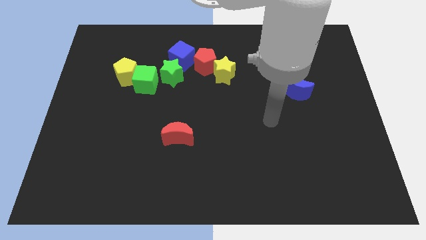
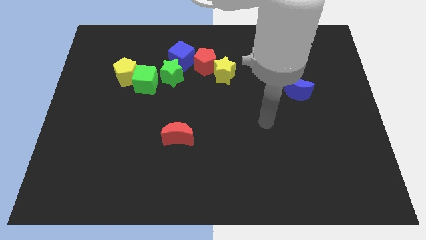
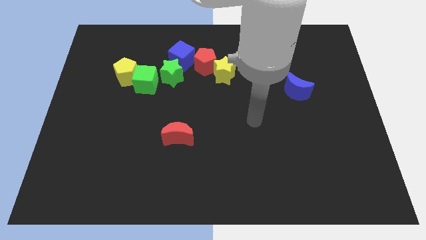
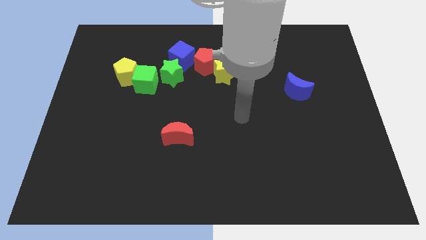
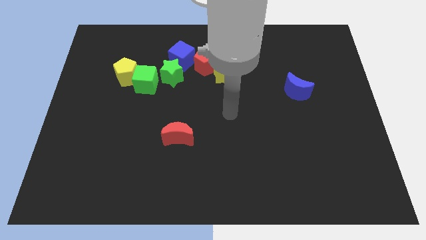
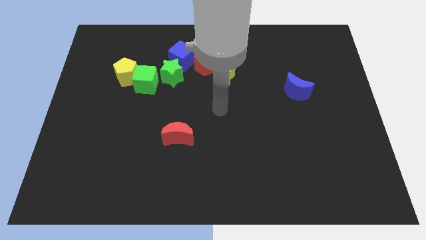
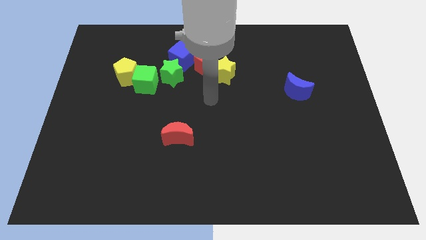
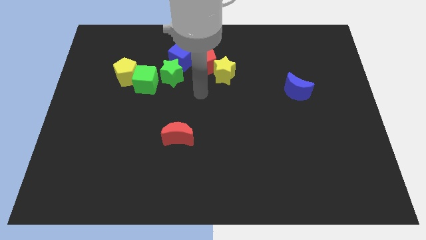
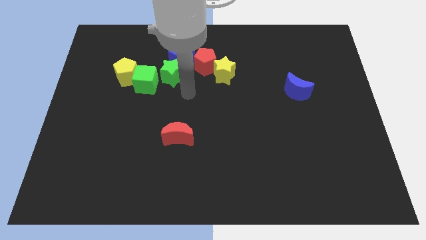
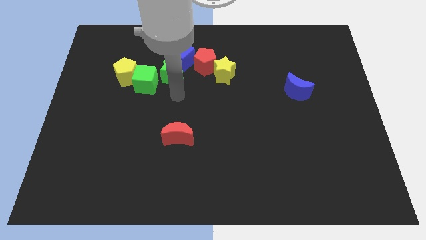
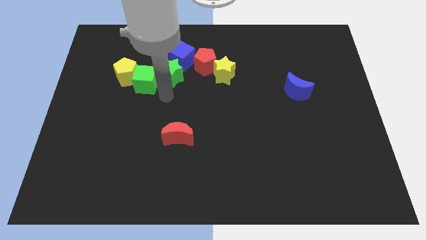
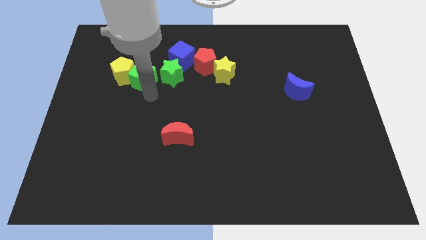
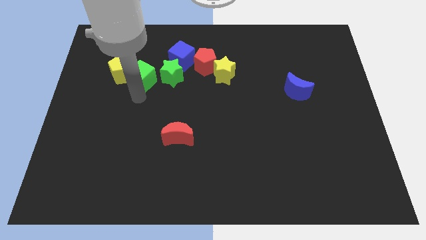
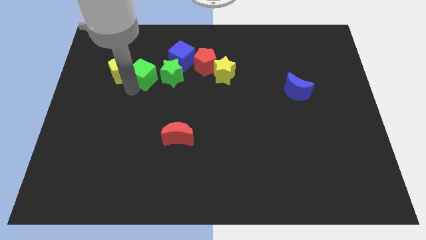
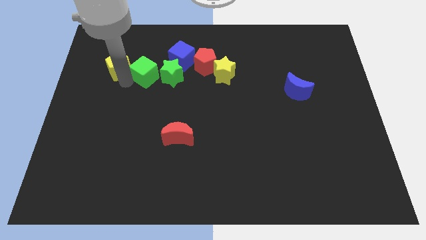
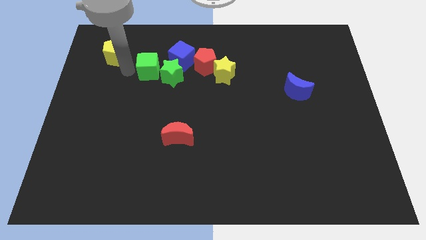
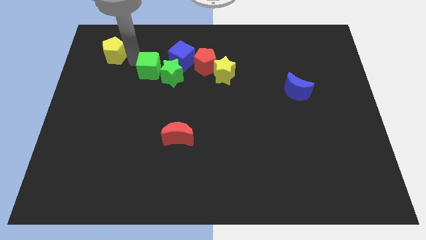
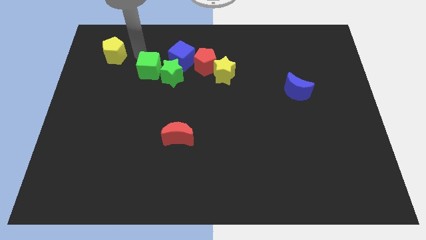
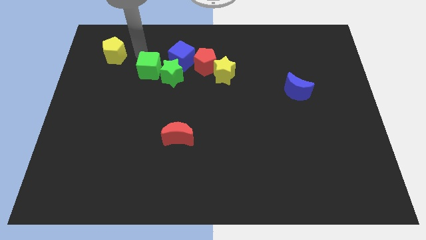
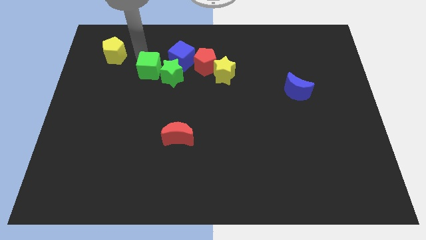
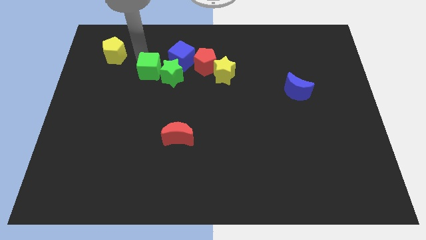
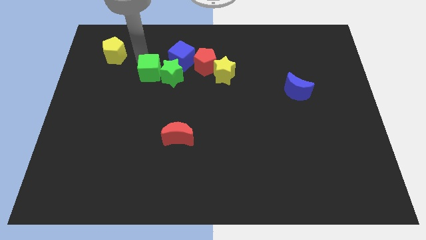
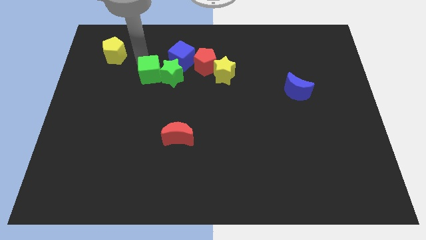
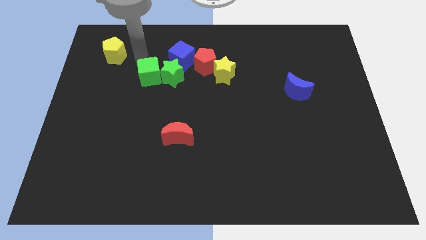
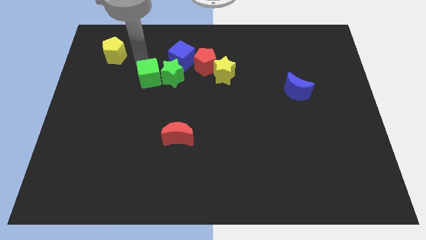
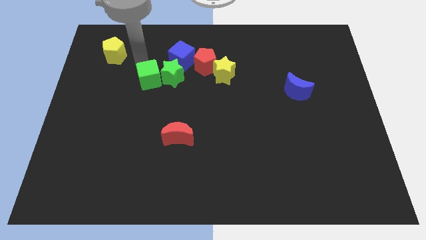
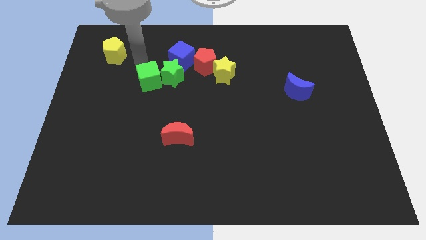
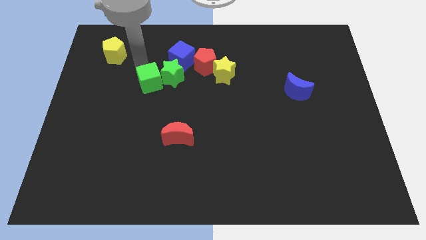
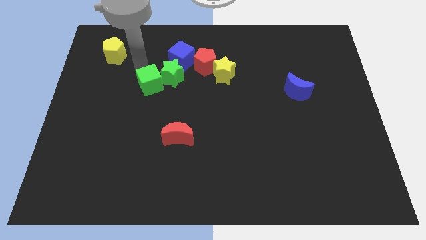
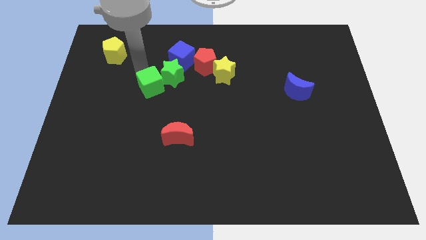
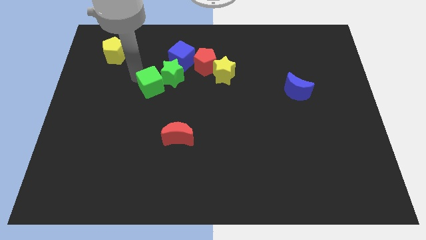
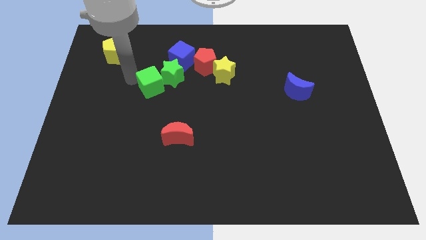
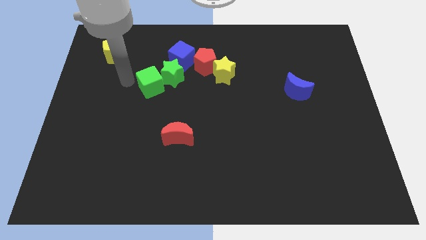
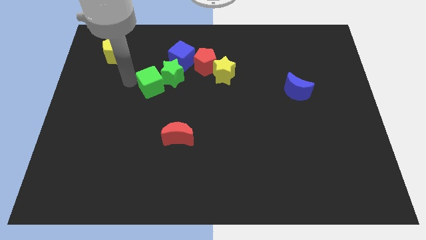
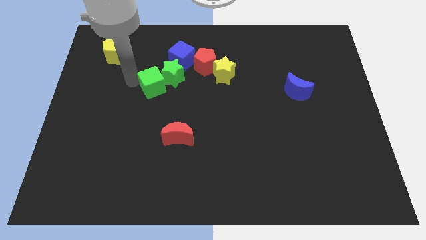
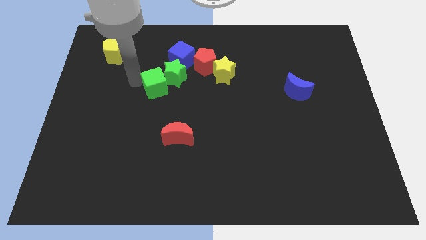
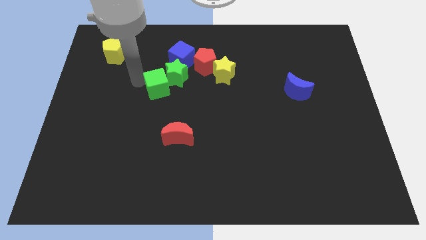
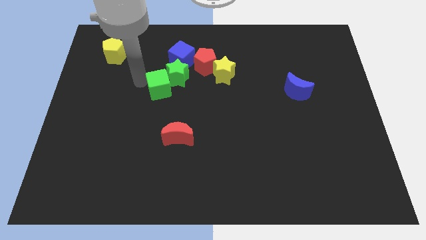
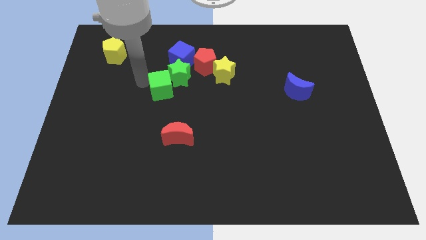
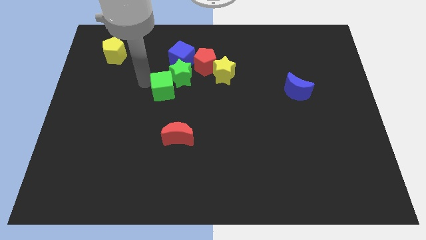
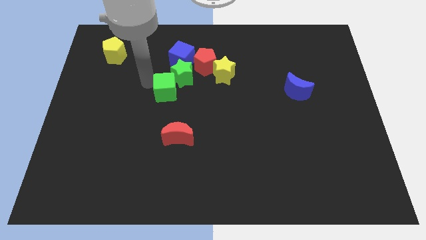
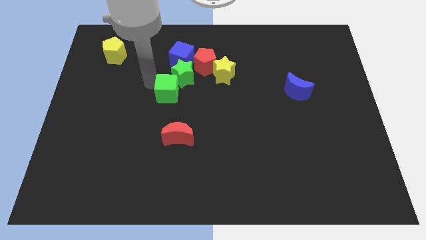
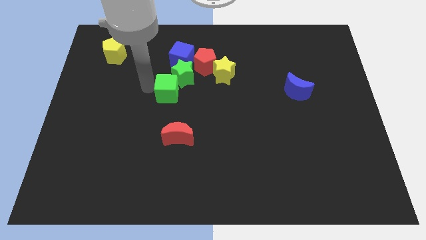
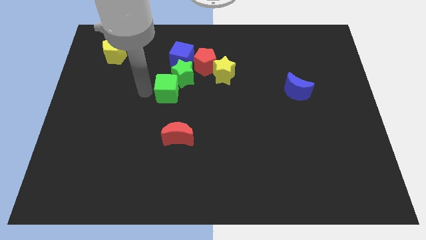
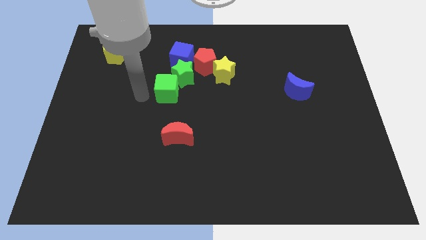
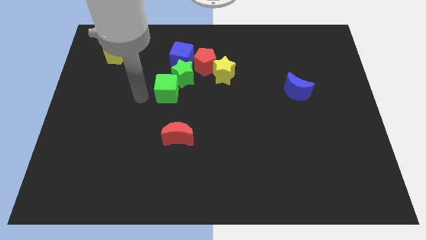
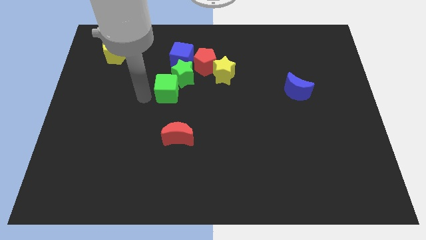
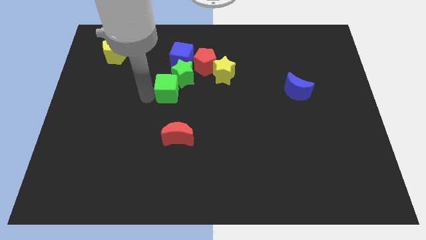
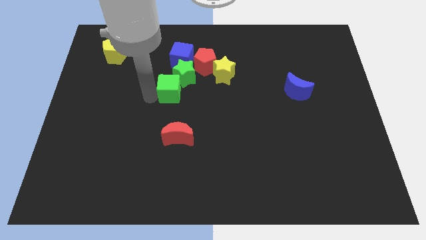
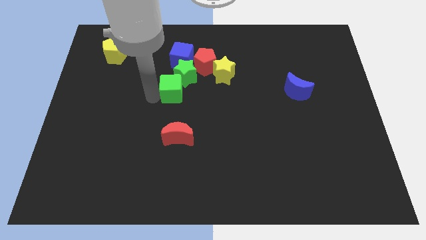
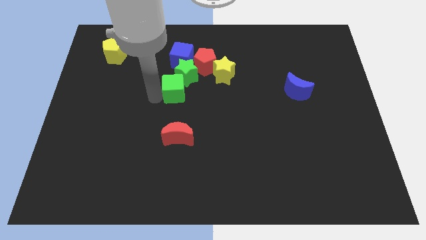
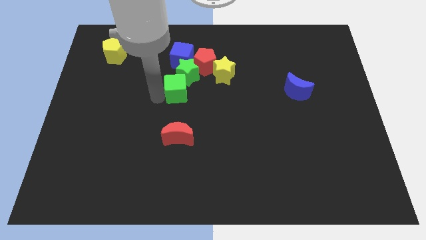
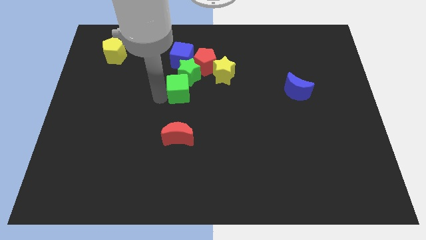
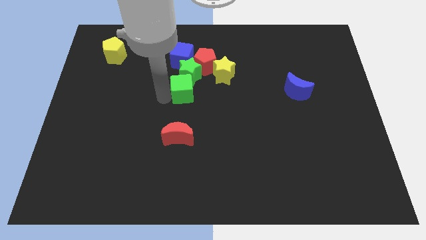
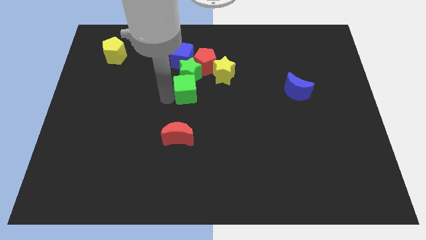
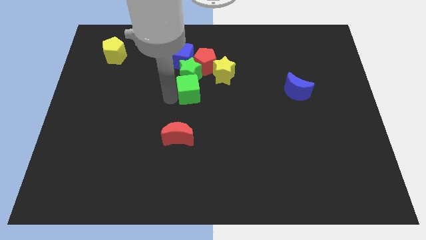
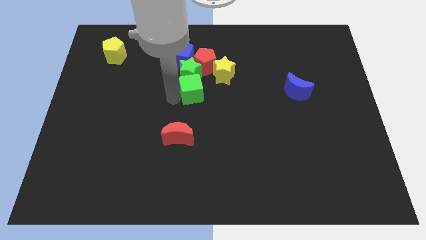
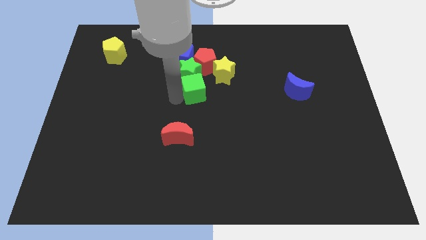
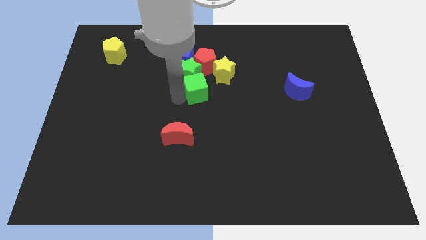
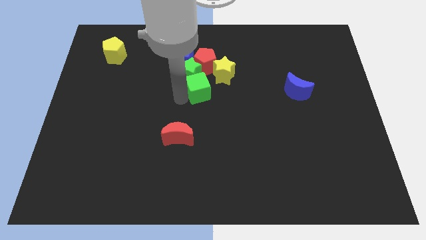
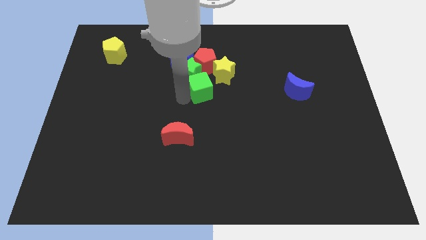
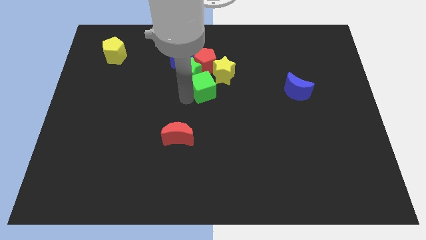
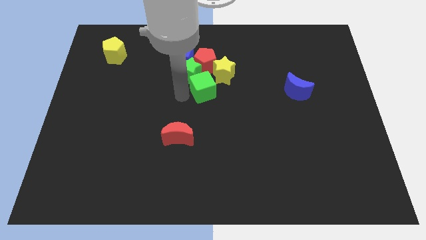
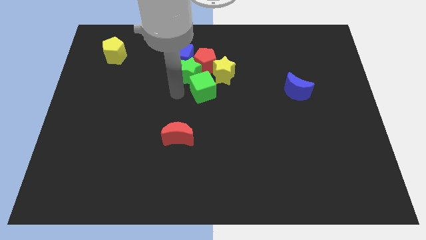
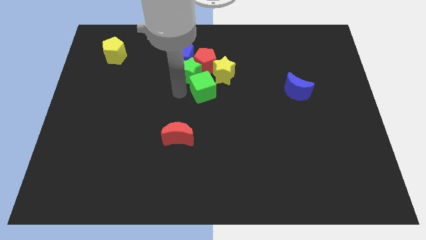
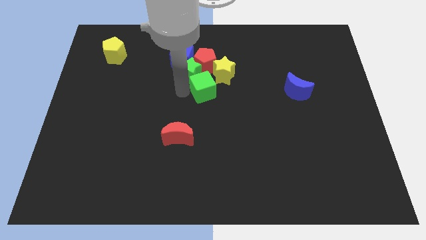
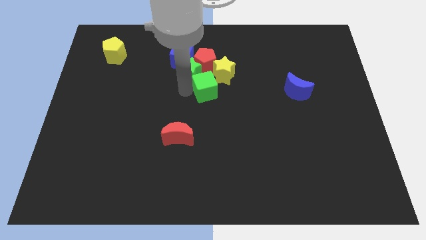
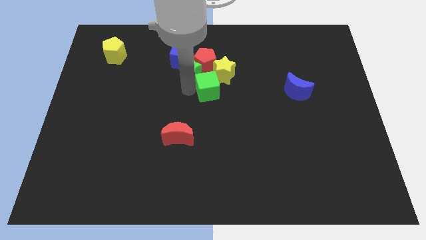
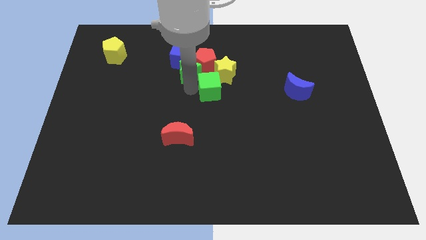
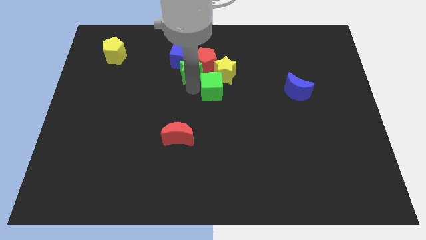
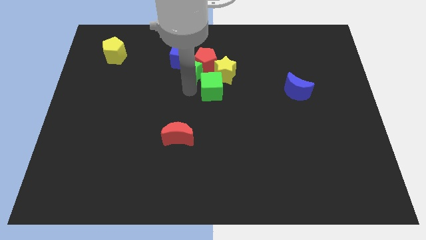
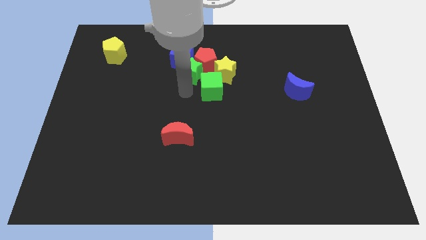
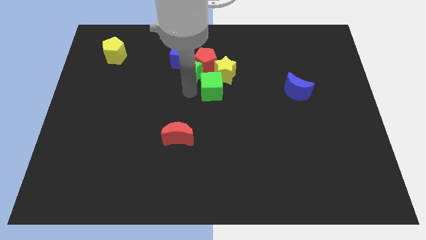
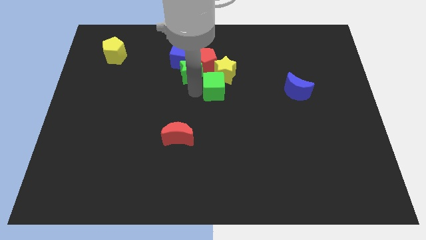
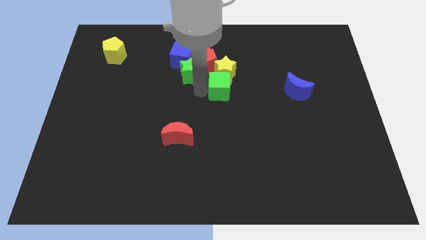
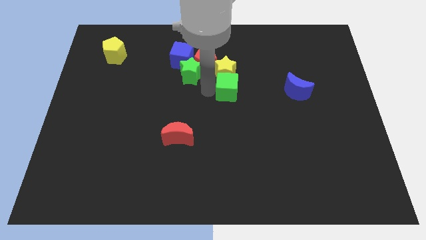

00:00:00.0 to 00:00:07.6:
push the green cube right

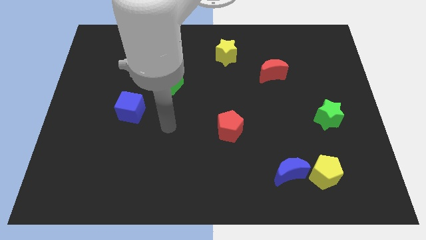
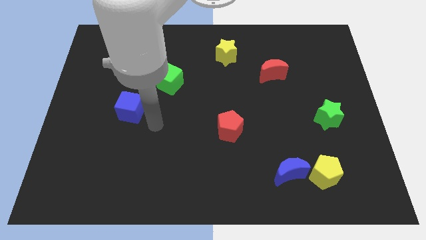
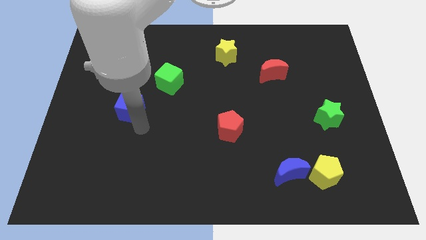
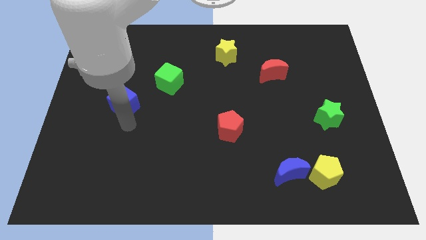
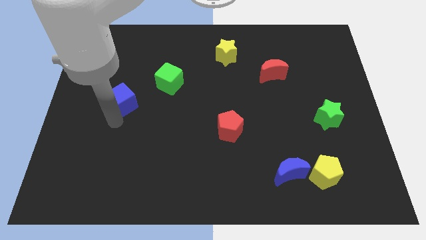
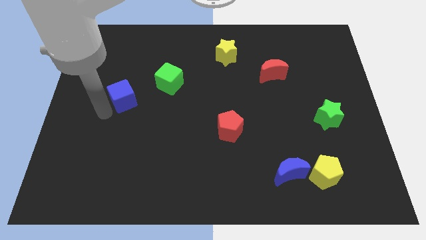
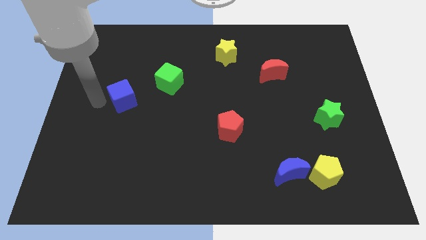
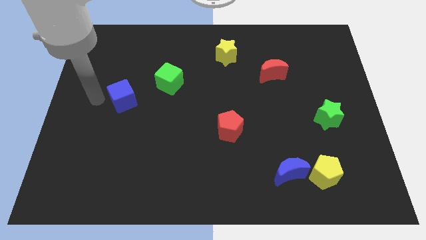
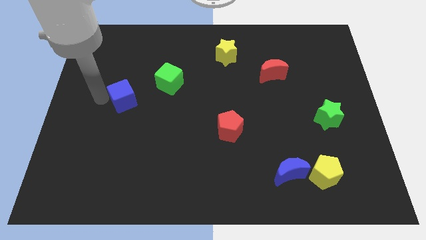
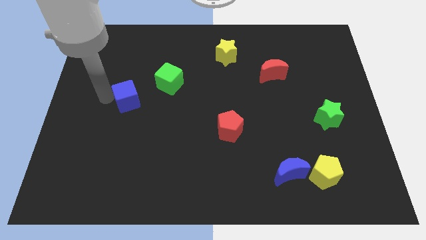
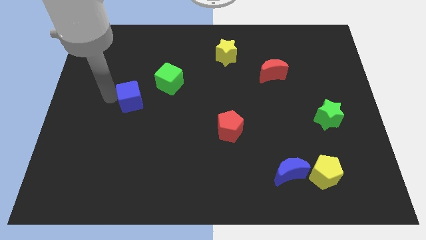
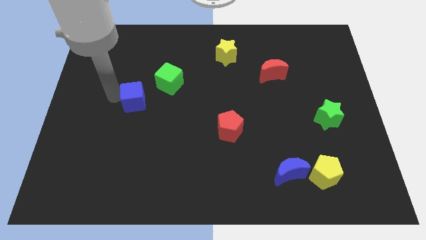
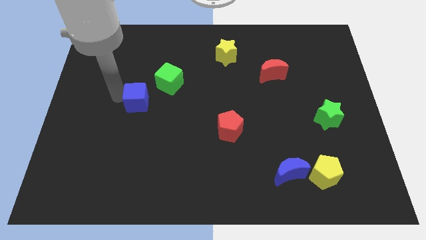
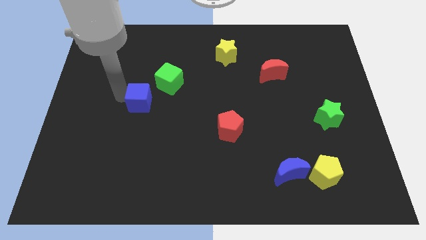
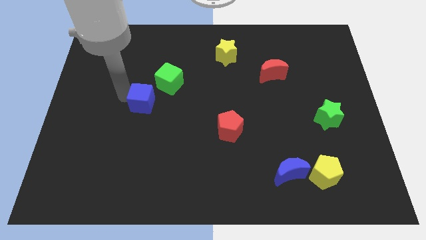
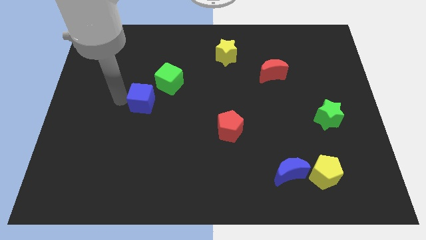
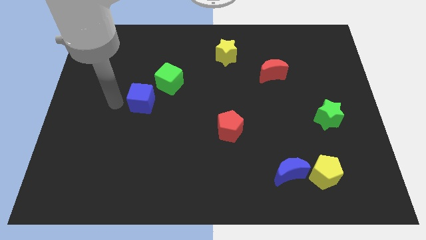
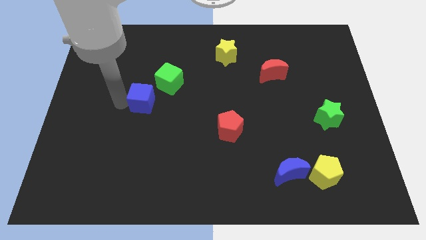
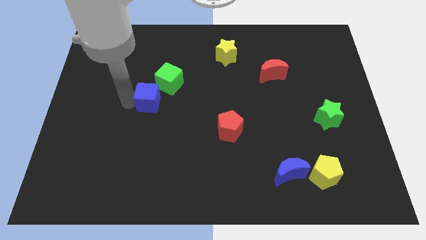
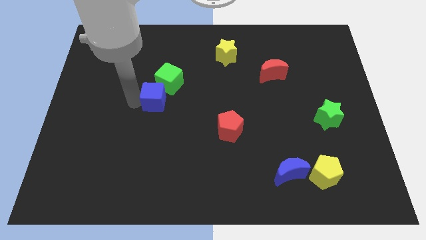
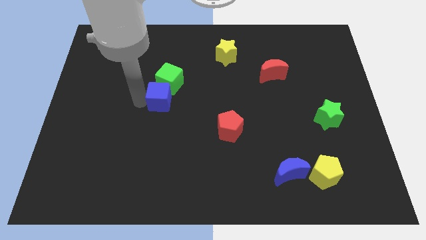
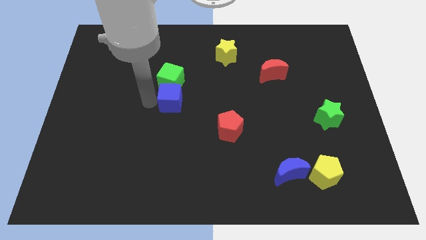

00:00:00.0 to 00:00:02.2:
slightly move the blue cube up and right
